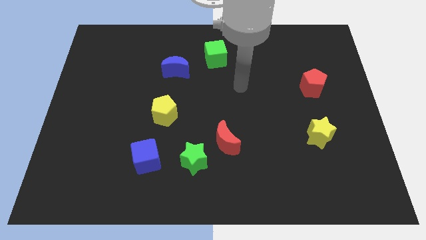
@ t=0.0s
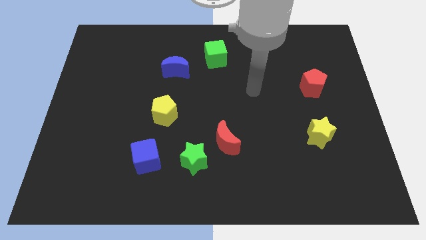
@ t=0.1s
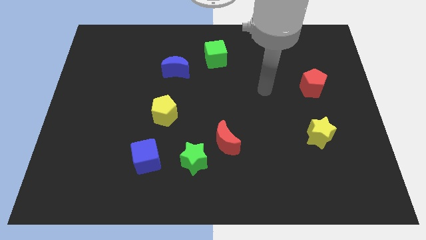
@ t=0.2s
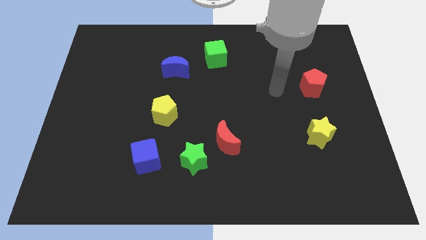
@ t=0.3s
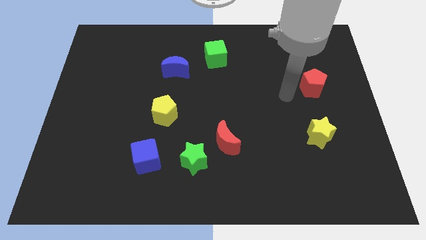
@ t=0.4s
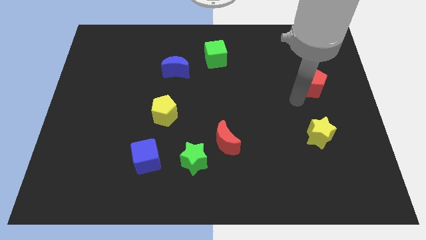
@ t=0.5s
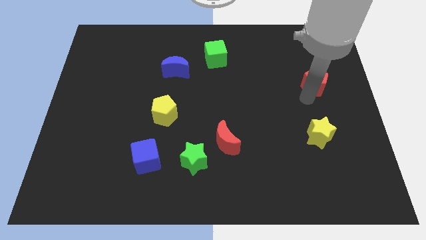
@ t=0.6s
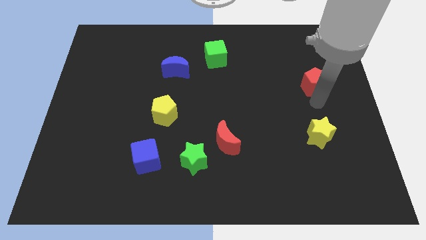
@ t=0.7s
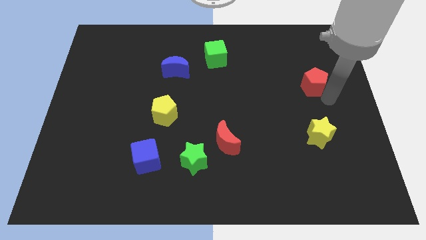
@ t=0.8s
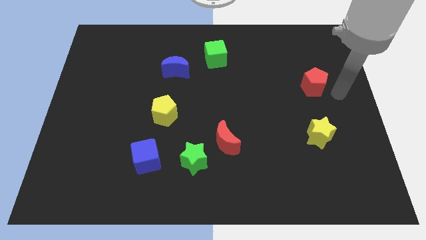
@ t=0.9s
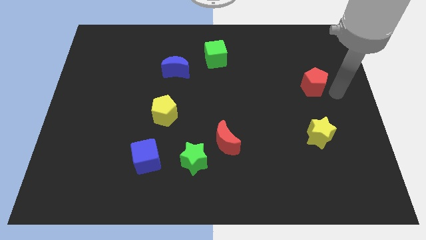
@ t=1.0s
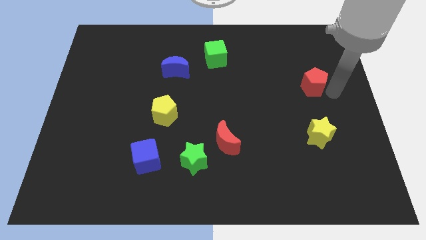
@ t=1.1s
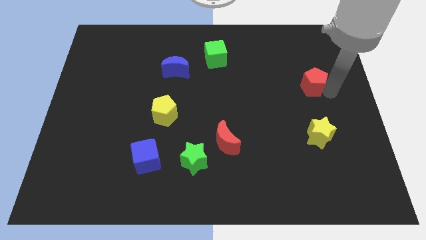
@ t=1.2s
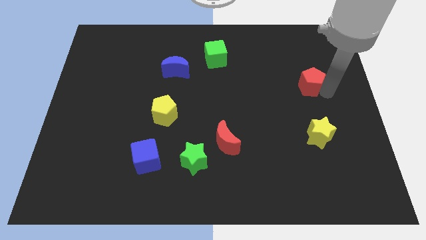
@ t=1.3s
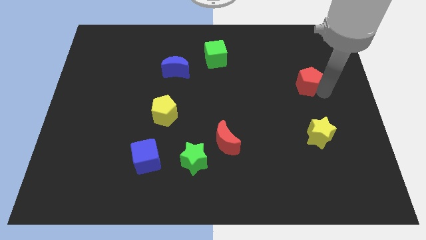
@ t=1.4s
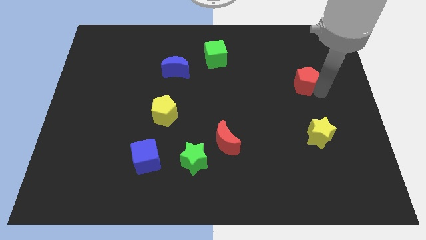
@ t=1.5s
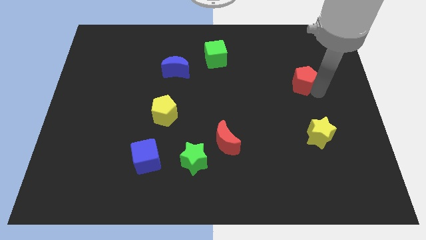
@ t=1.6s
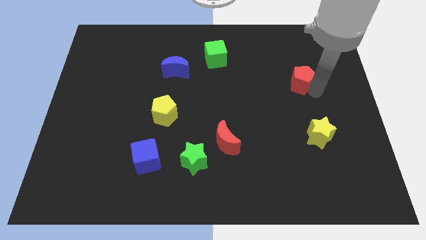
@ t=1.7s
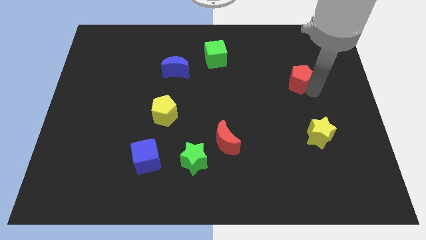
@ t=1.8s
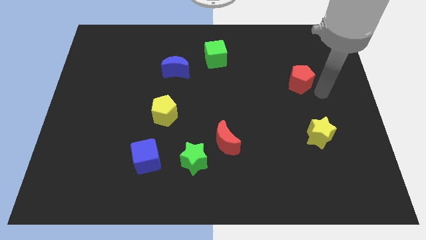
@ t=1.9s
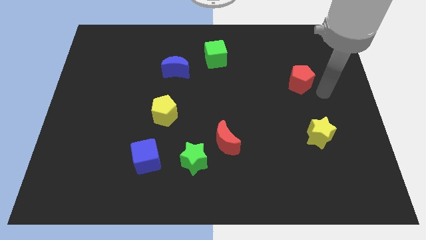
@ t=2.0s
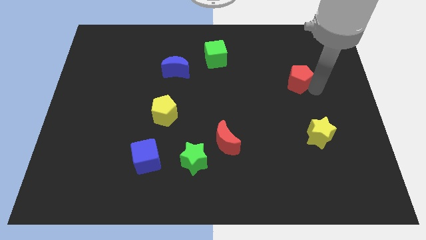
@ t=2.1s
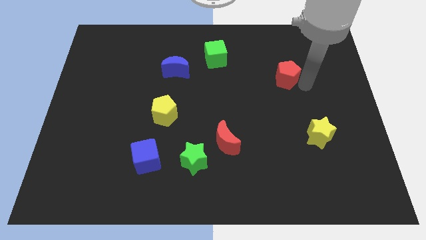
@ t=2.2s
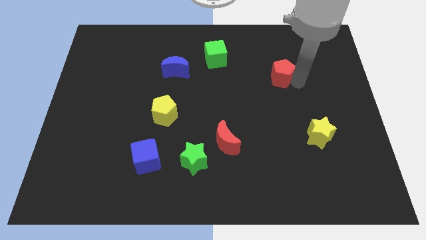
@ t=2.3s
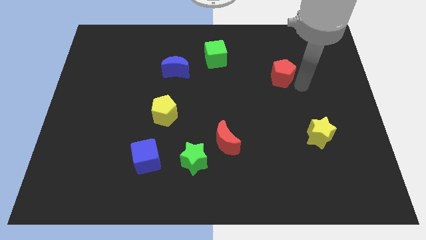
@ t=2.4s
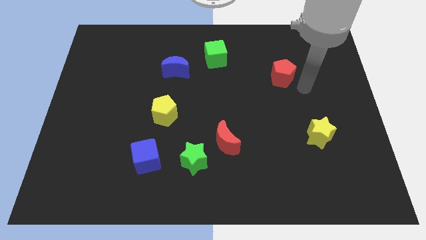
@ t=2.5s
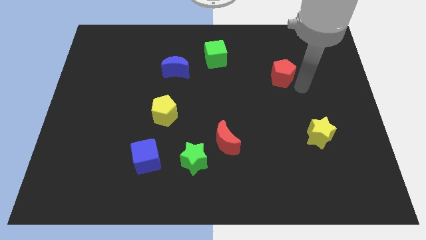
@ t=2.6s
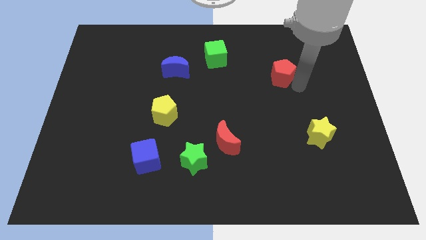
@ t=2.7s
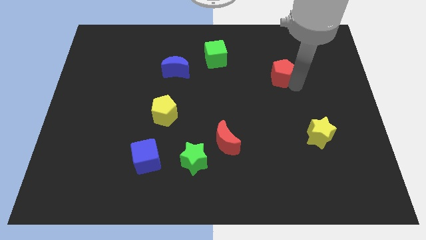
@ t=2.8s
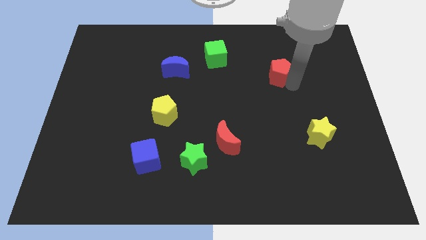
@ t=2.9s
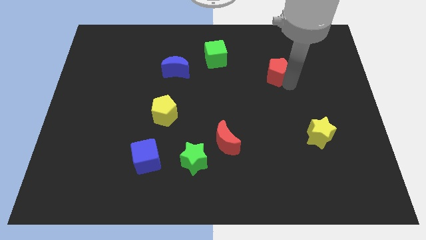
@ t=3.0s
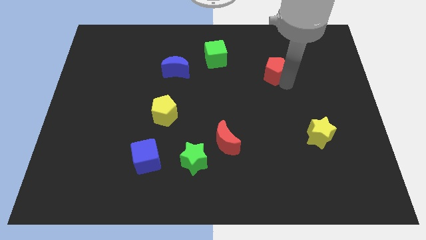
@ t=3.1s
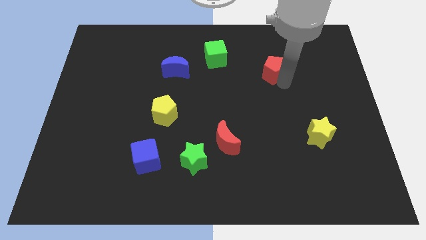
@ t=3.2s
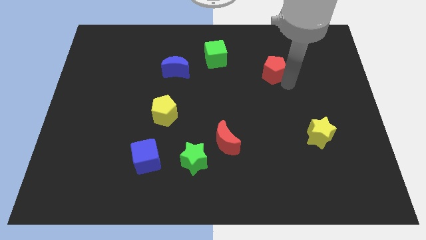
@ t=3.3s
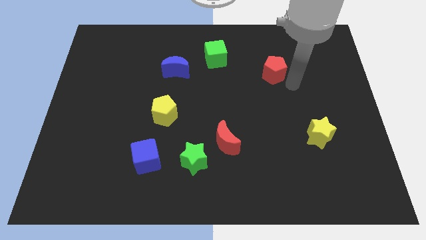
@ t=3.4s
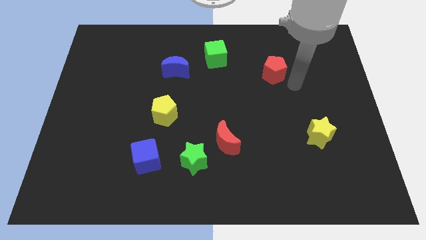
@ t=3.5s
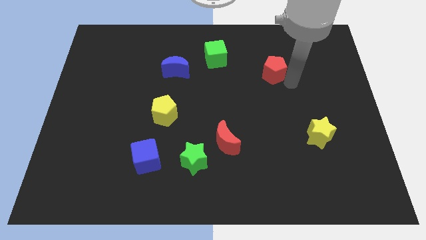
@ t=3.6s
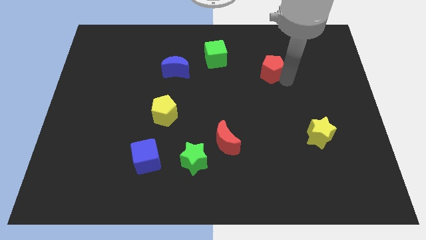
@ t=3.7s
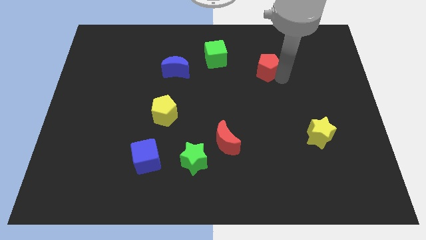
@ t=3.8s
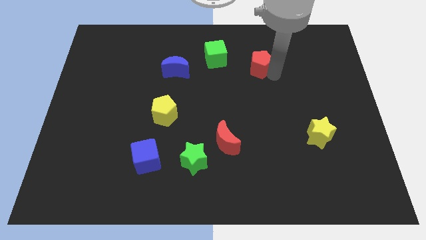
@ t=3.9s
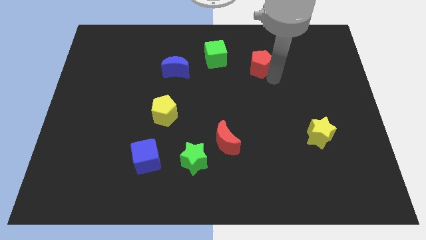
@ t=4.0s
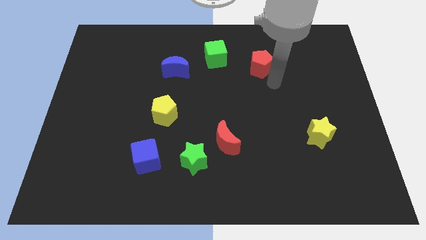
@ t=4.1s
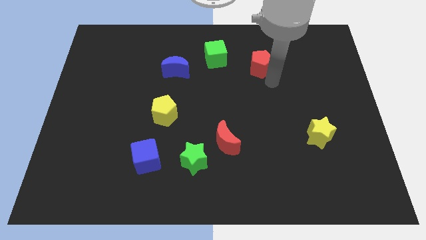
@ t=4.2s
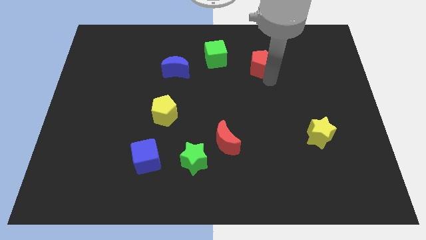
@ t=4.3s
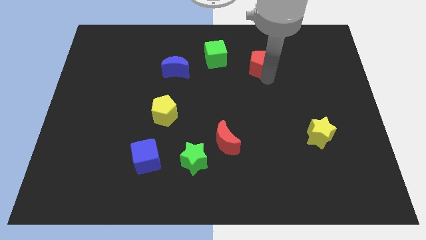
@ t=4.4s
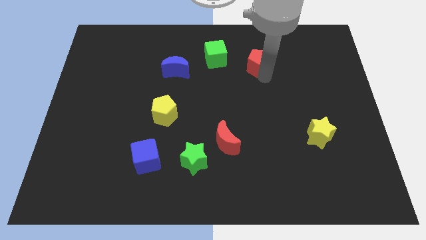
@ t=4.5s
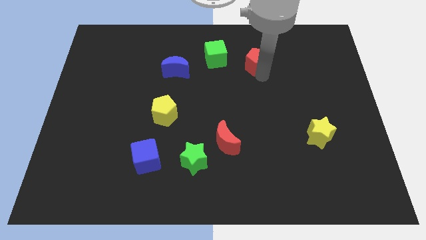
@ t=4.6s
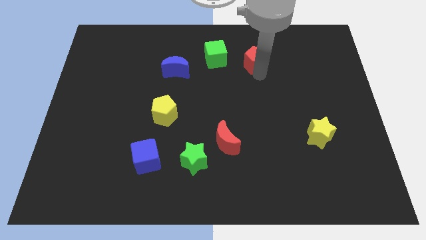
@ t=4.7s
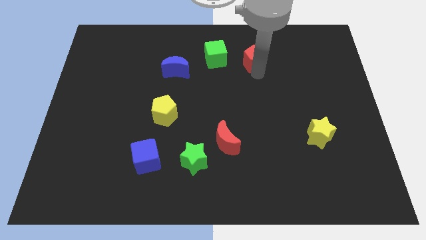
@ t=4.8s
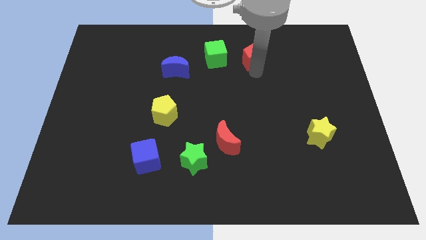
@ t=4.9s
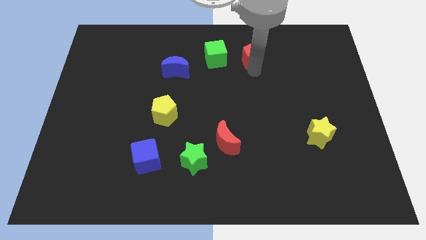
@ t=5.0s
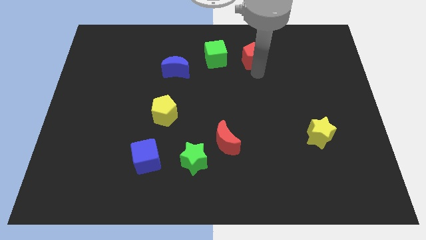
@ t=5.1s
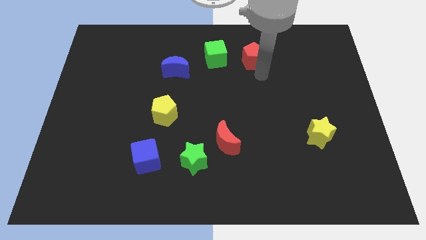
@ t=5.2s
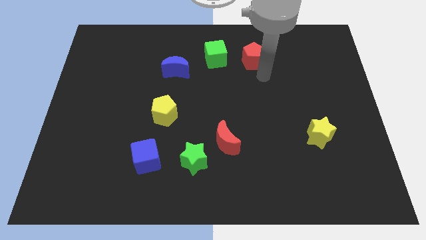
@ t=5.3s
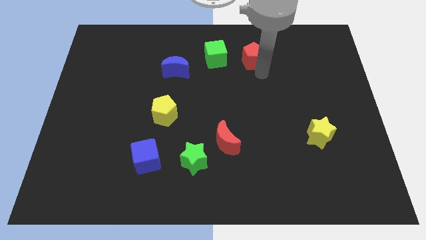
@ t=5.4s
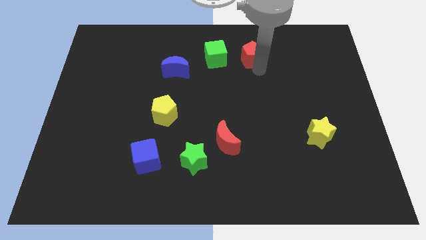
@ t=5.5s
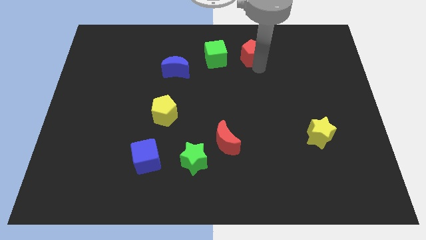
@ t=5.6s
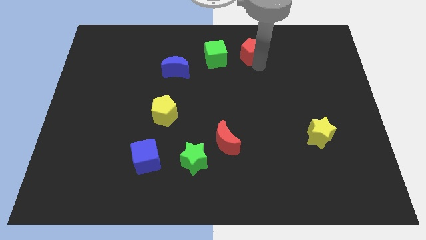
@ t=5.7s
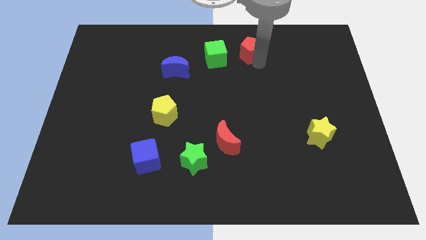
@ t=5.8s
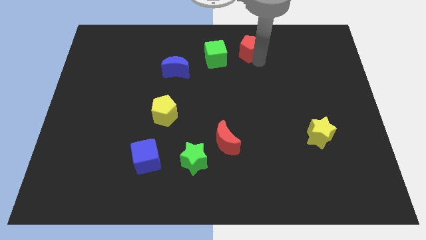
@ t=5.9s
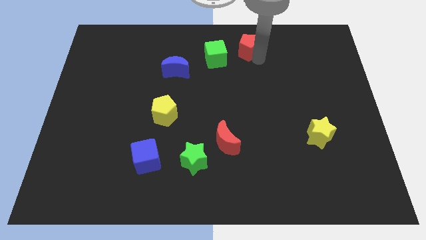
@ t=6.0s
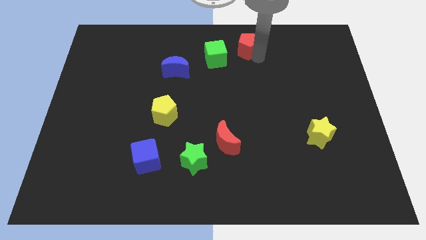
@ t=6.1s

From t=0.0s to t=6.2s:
slide the red pentagon to the top side
